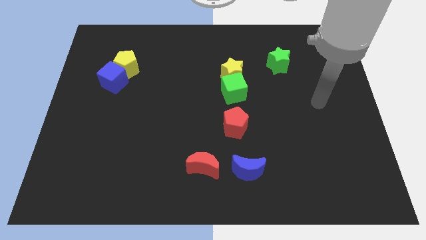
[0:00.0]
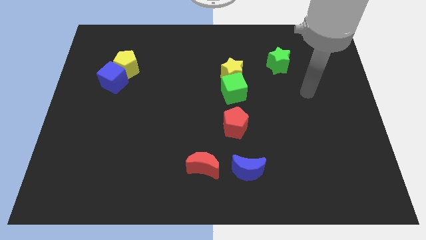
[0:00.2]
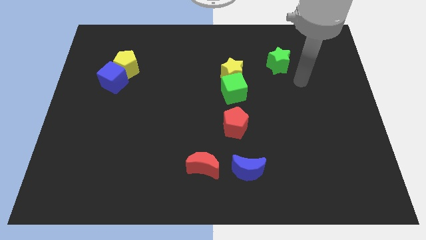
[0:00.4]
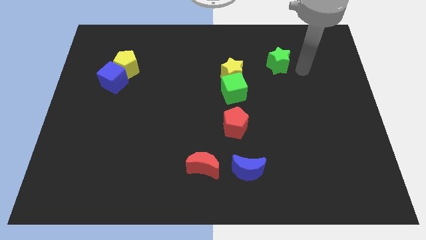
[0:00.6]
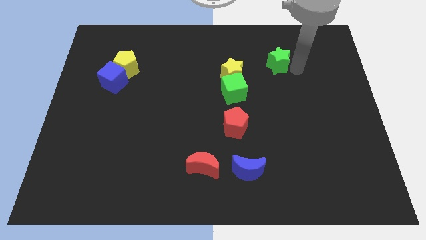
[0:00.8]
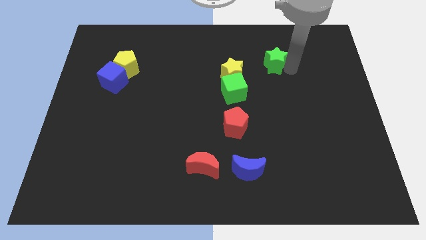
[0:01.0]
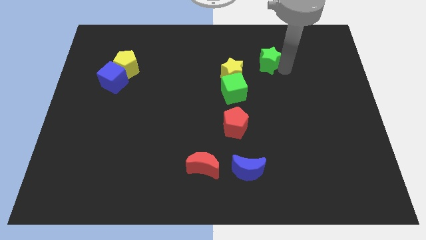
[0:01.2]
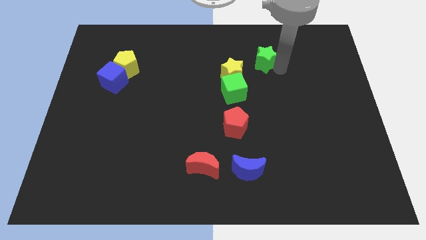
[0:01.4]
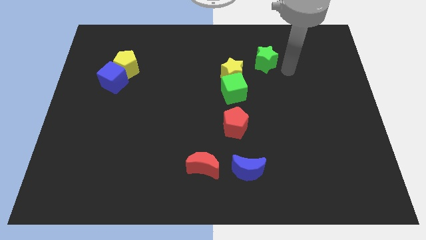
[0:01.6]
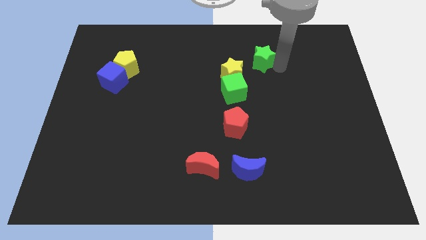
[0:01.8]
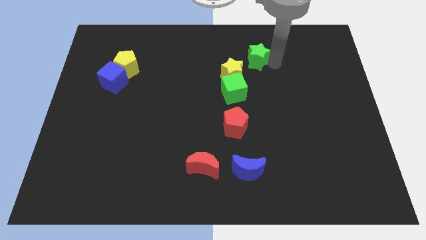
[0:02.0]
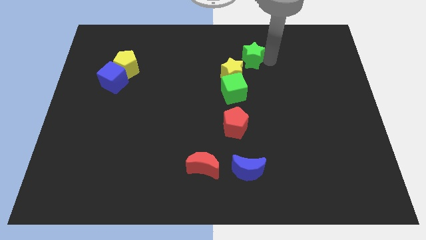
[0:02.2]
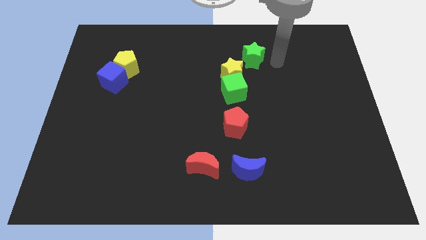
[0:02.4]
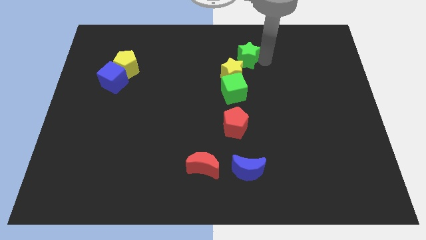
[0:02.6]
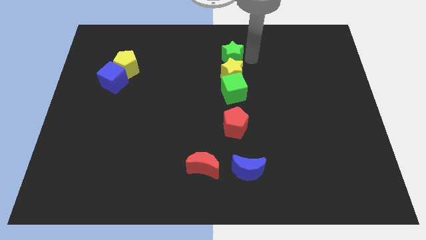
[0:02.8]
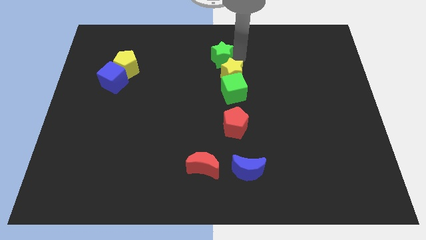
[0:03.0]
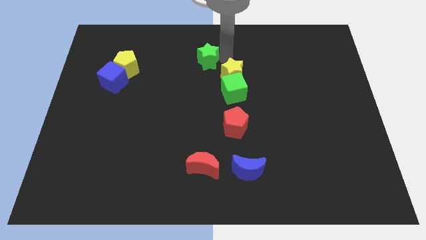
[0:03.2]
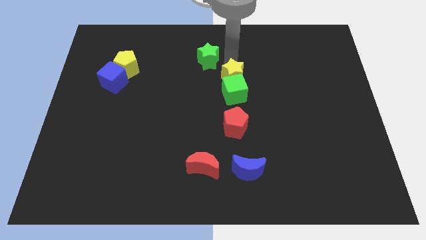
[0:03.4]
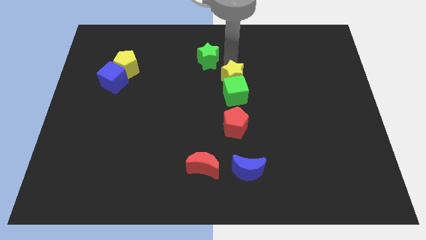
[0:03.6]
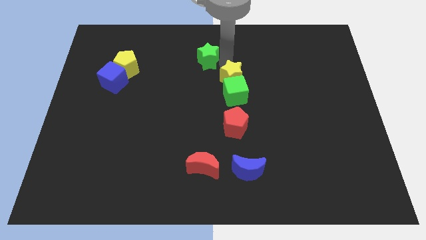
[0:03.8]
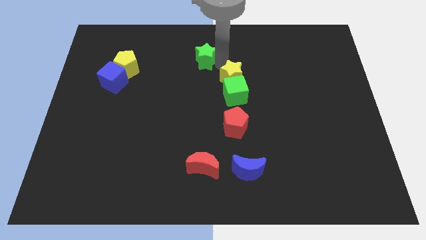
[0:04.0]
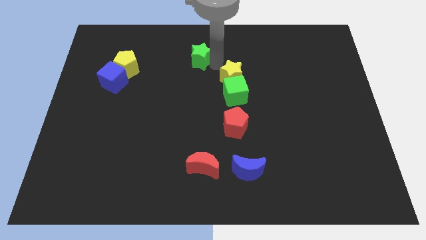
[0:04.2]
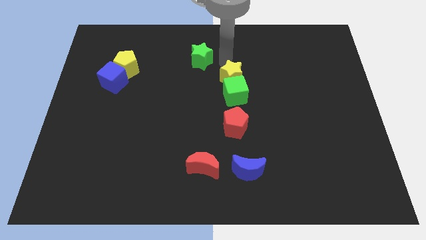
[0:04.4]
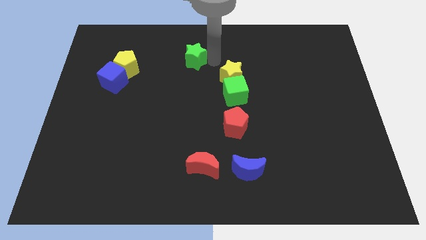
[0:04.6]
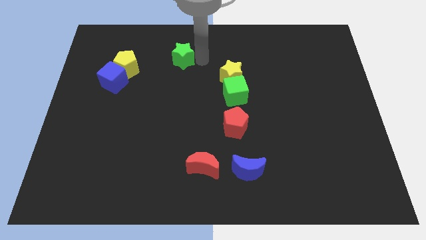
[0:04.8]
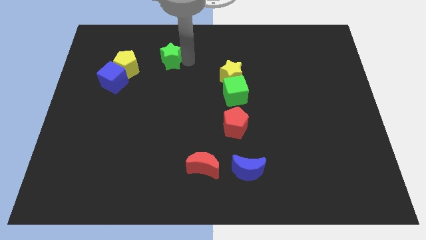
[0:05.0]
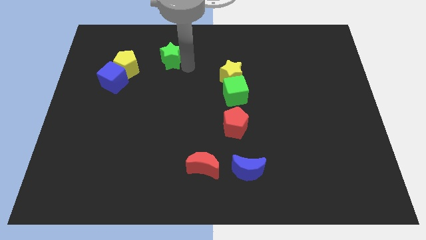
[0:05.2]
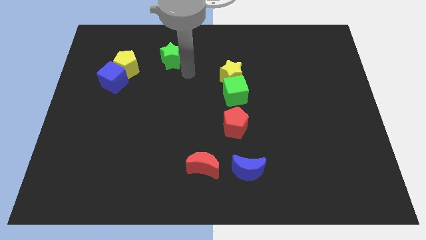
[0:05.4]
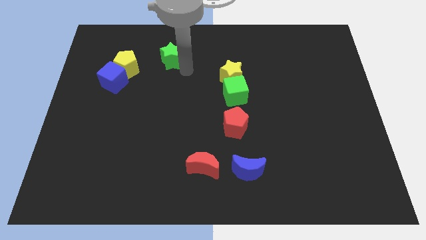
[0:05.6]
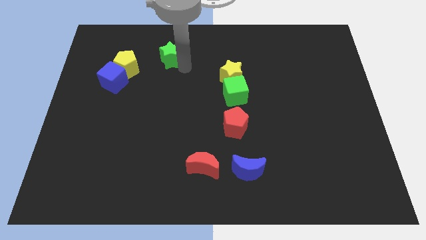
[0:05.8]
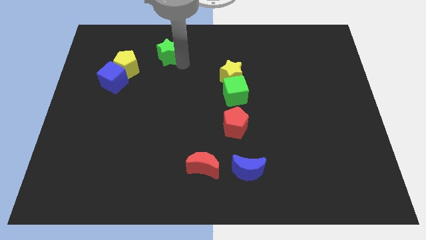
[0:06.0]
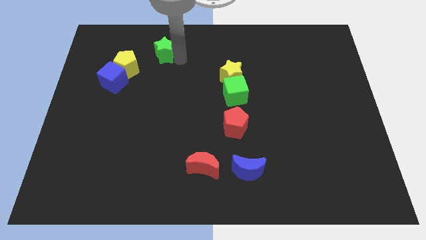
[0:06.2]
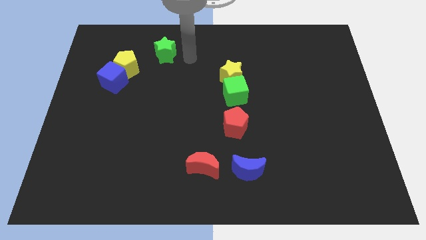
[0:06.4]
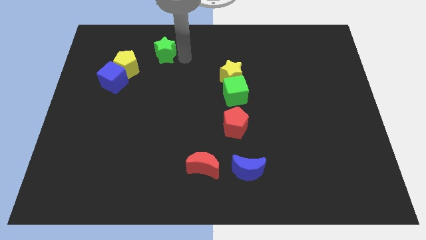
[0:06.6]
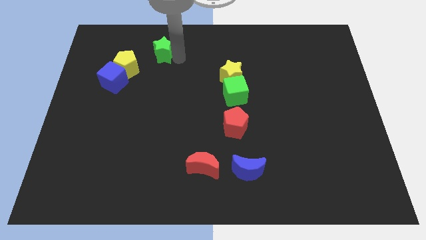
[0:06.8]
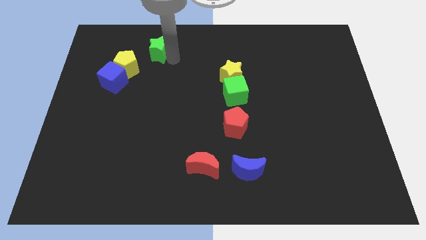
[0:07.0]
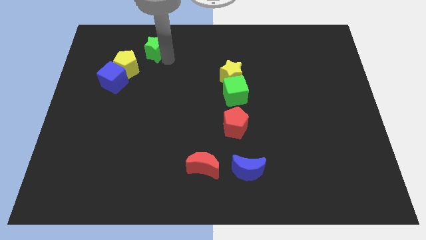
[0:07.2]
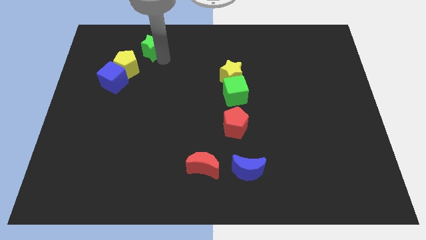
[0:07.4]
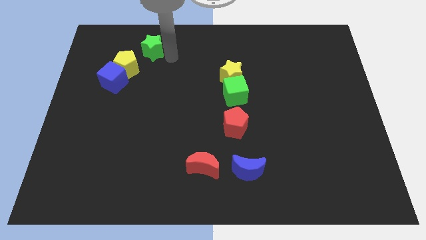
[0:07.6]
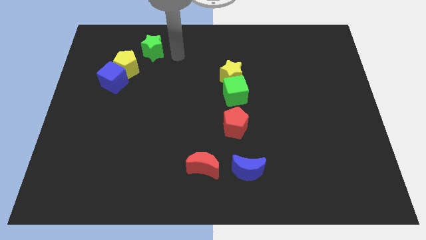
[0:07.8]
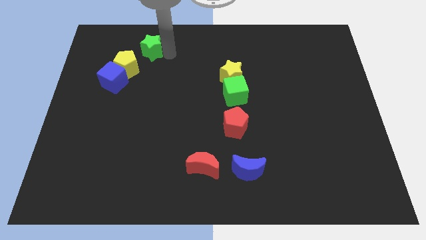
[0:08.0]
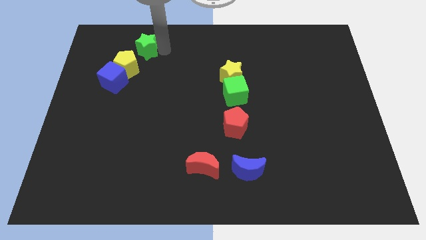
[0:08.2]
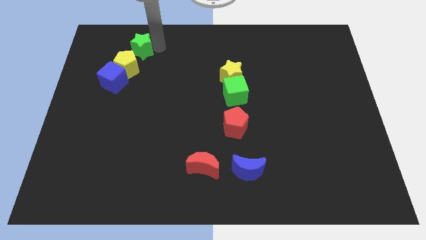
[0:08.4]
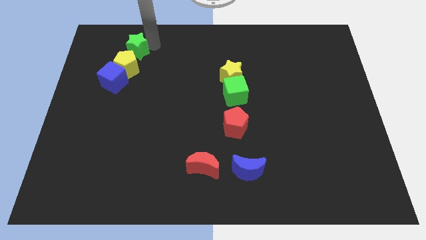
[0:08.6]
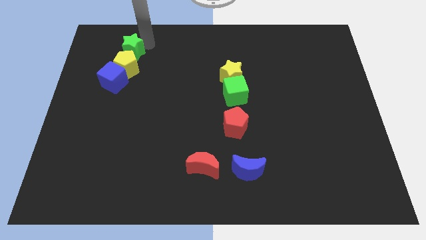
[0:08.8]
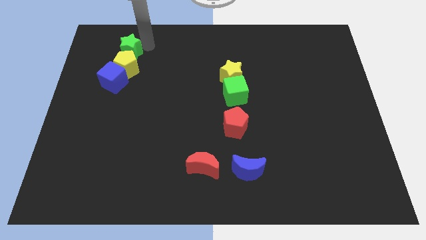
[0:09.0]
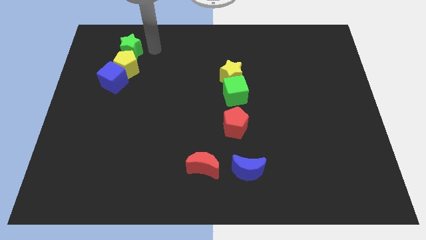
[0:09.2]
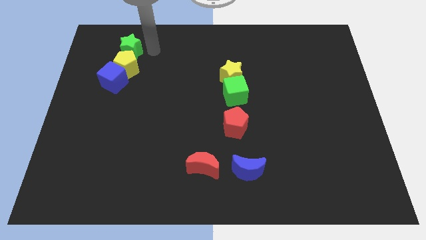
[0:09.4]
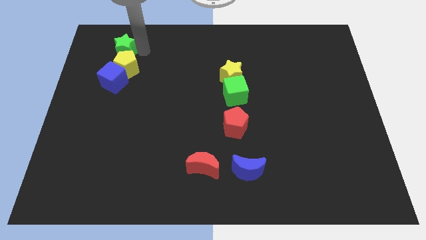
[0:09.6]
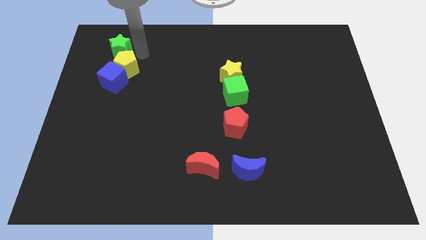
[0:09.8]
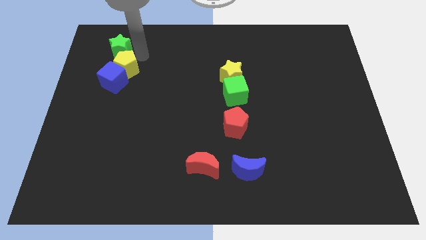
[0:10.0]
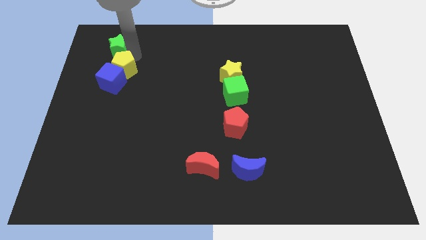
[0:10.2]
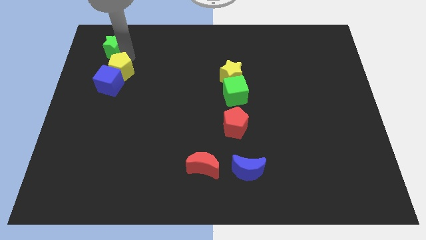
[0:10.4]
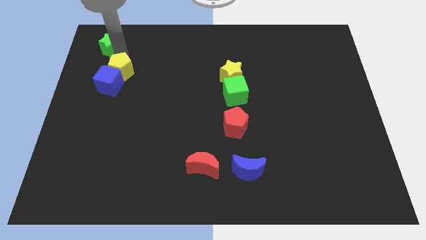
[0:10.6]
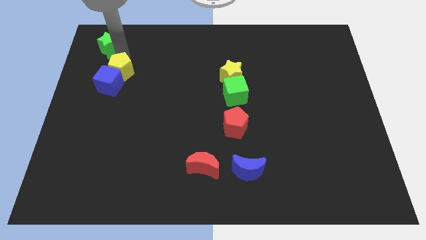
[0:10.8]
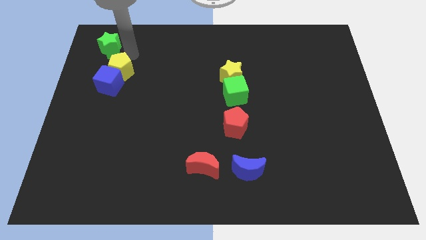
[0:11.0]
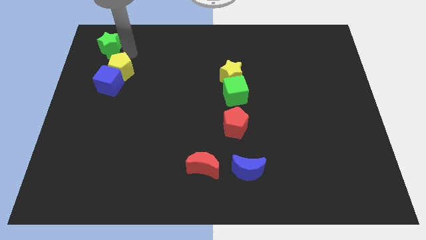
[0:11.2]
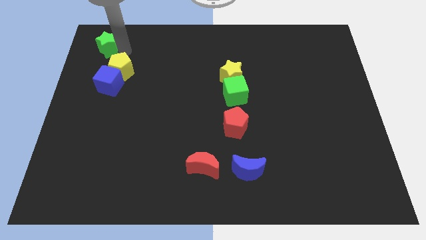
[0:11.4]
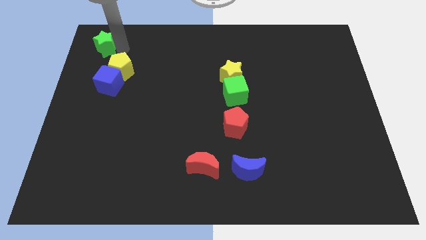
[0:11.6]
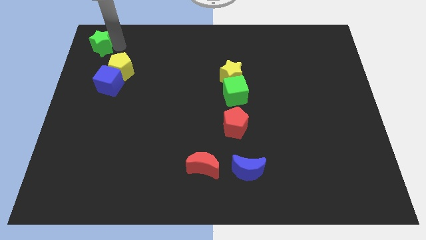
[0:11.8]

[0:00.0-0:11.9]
put the green star to the top left
